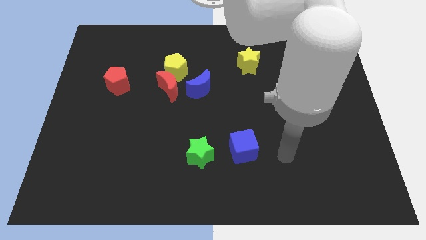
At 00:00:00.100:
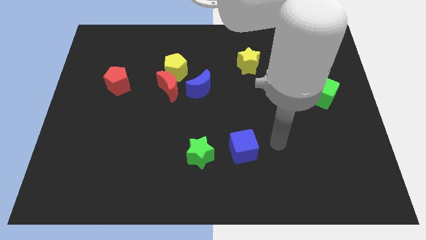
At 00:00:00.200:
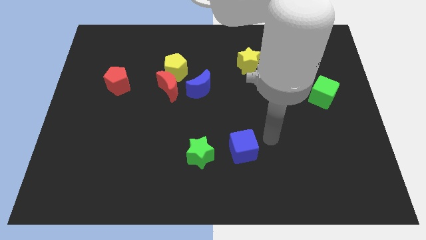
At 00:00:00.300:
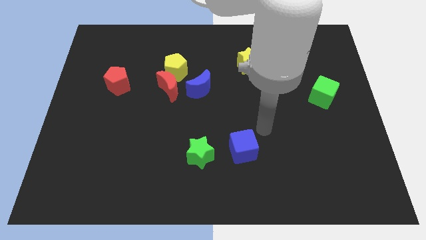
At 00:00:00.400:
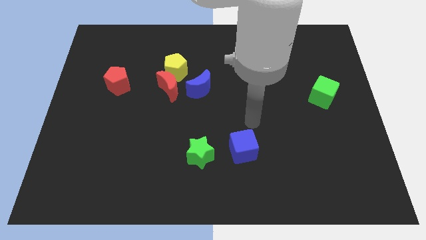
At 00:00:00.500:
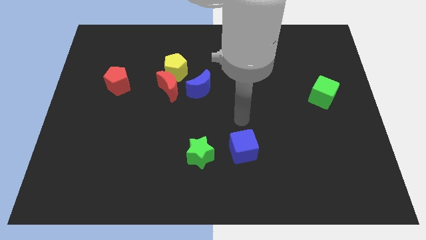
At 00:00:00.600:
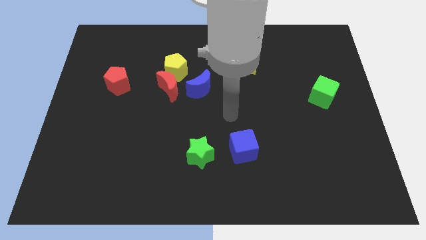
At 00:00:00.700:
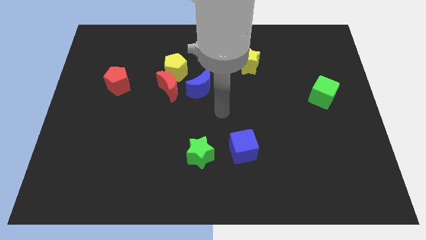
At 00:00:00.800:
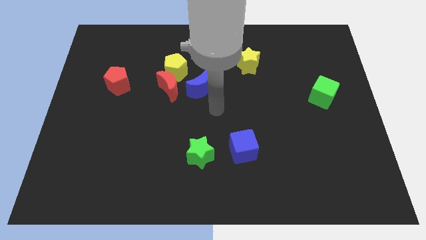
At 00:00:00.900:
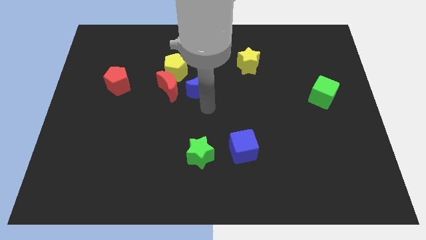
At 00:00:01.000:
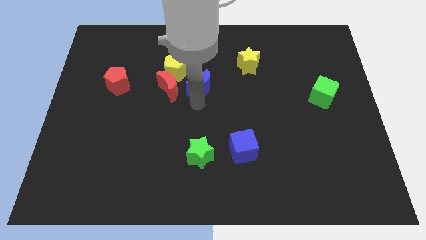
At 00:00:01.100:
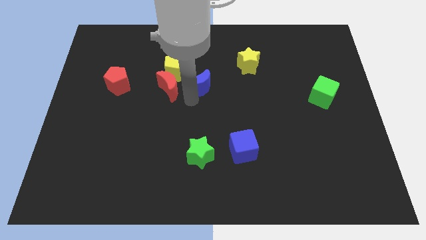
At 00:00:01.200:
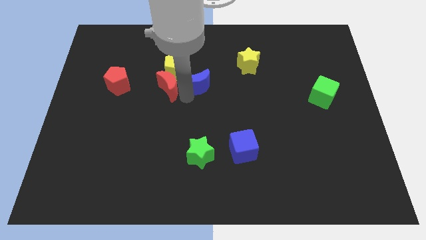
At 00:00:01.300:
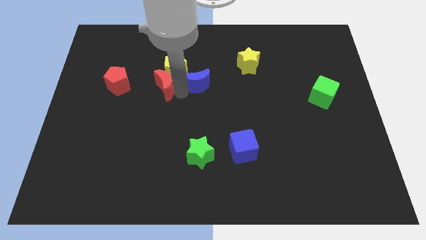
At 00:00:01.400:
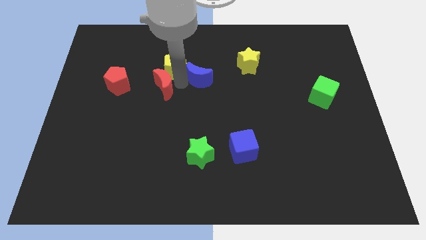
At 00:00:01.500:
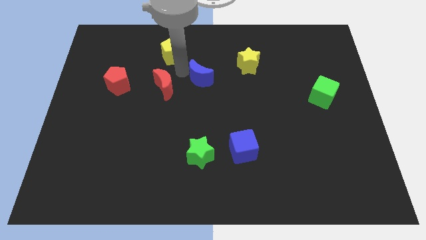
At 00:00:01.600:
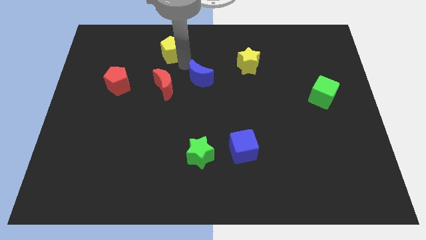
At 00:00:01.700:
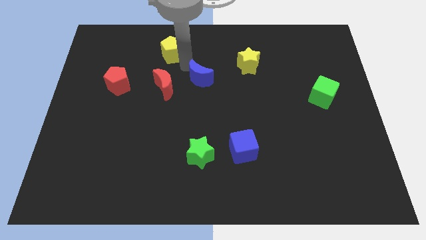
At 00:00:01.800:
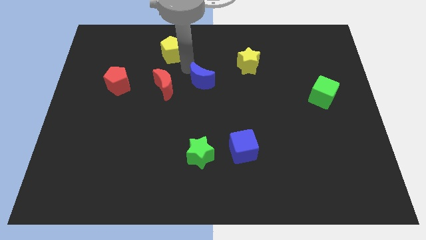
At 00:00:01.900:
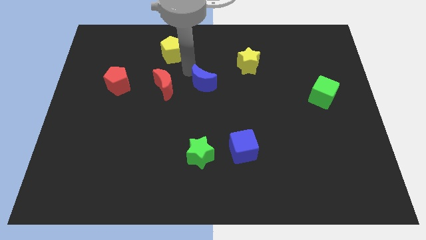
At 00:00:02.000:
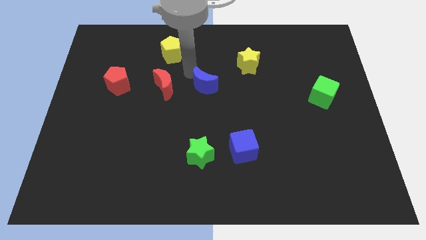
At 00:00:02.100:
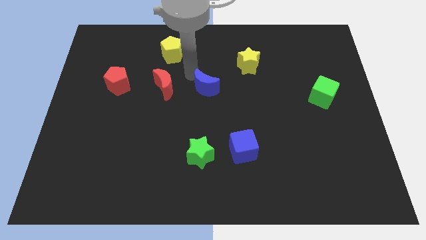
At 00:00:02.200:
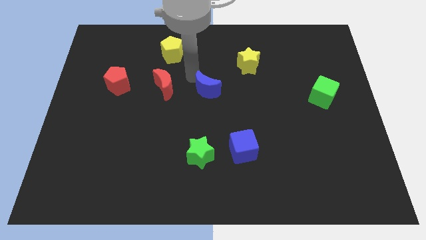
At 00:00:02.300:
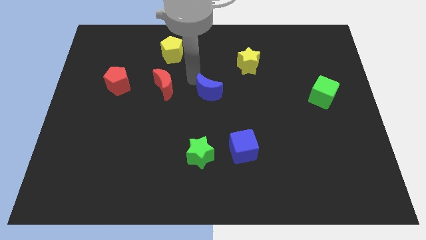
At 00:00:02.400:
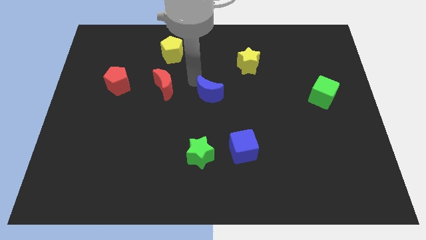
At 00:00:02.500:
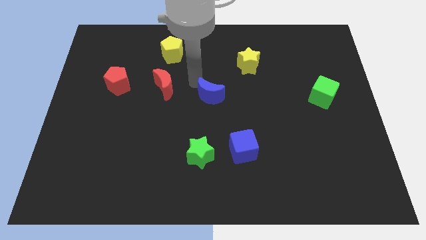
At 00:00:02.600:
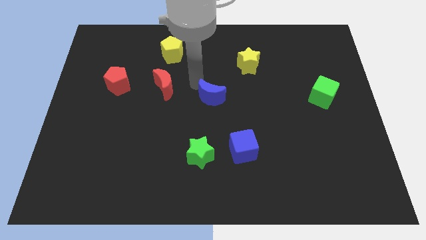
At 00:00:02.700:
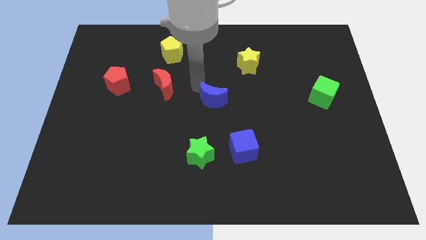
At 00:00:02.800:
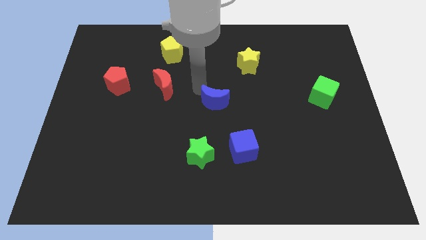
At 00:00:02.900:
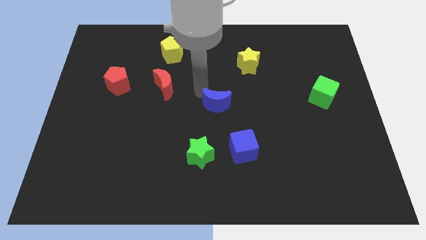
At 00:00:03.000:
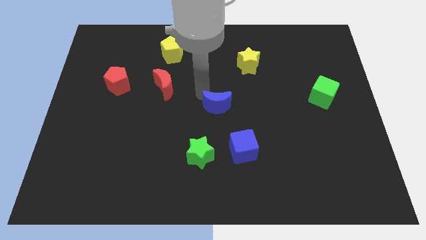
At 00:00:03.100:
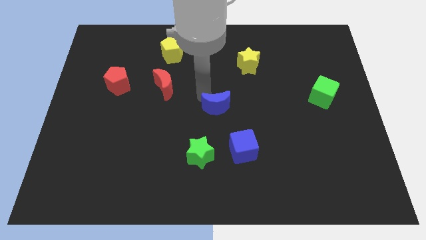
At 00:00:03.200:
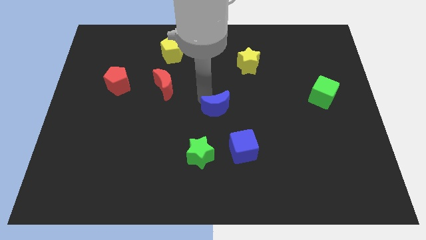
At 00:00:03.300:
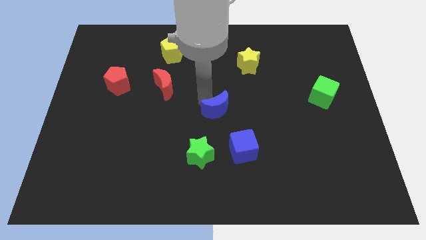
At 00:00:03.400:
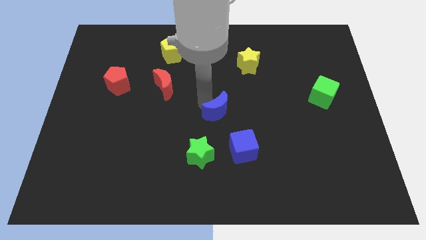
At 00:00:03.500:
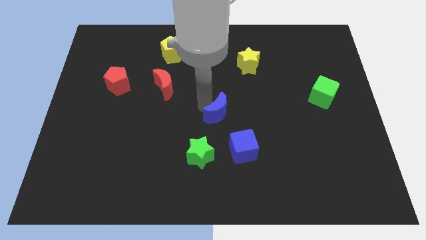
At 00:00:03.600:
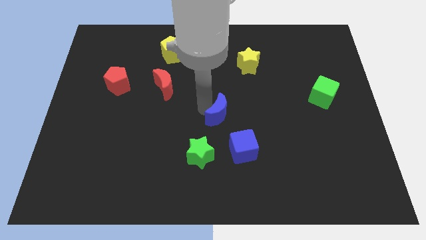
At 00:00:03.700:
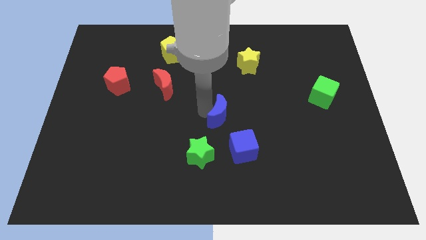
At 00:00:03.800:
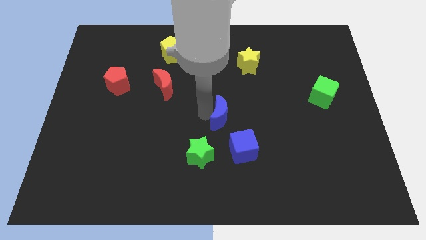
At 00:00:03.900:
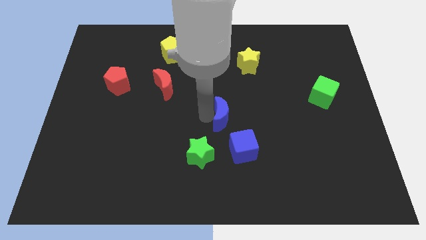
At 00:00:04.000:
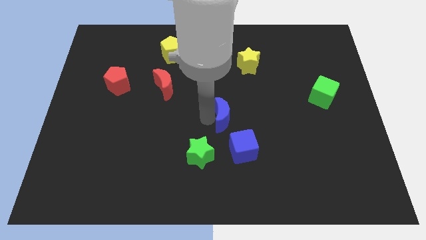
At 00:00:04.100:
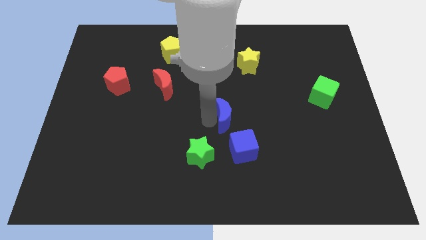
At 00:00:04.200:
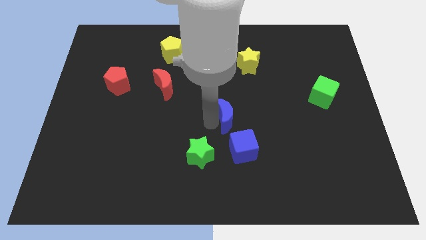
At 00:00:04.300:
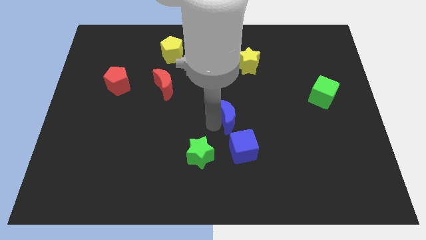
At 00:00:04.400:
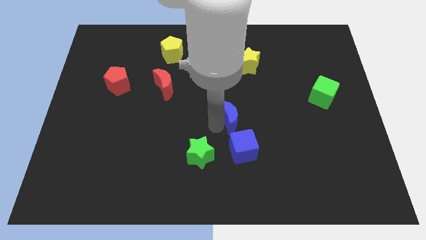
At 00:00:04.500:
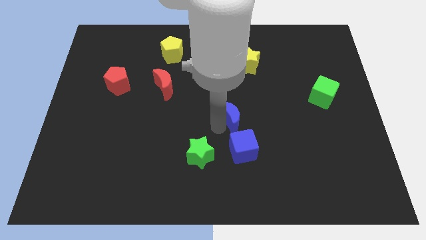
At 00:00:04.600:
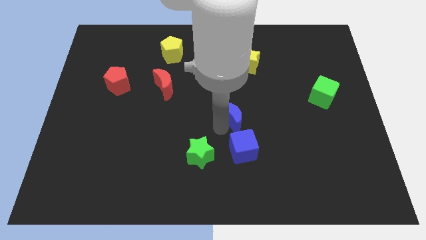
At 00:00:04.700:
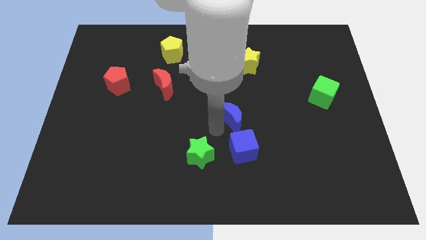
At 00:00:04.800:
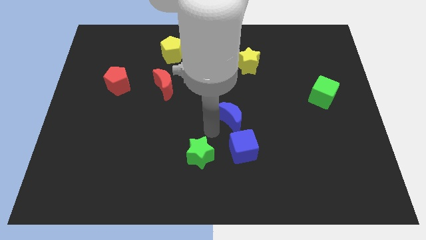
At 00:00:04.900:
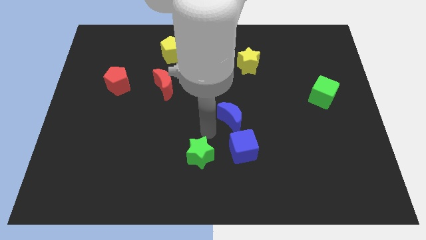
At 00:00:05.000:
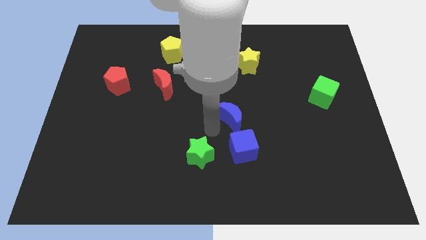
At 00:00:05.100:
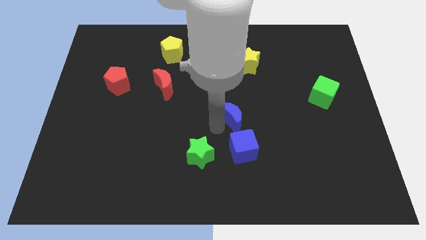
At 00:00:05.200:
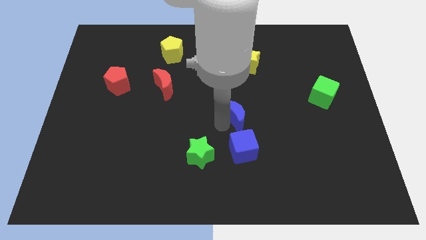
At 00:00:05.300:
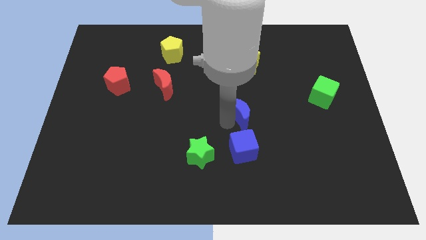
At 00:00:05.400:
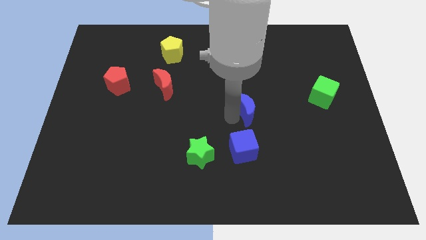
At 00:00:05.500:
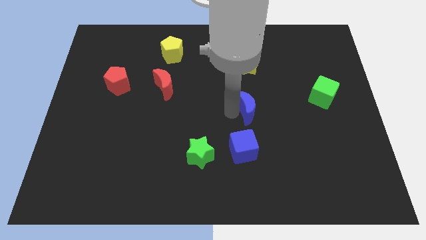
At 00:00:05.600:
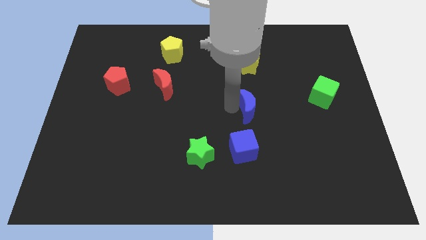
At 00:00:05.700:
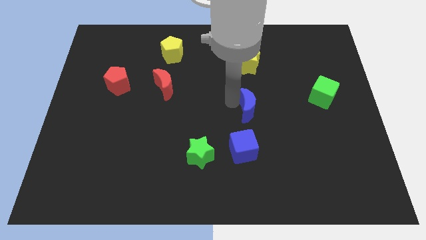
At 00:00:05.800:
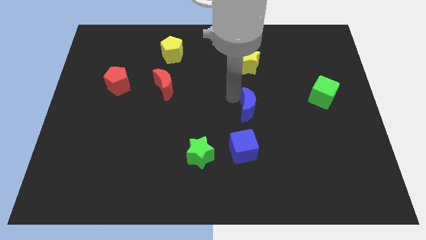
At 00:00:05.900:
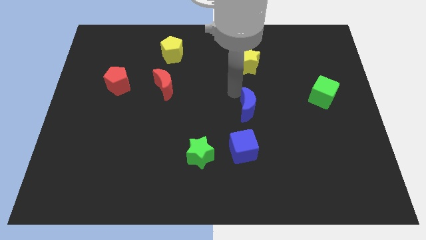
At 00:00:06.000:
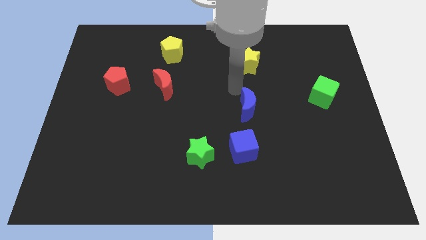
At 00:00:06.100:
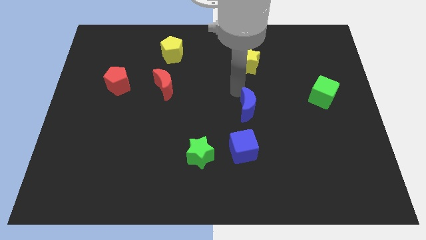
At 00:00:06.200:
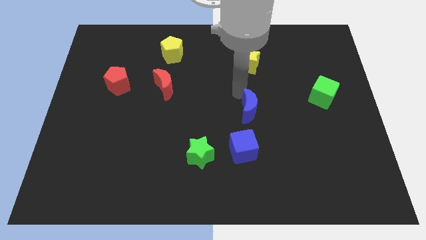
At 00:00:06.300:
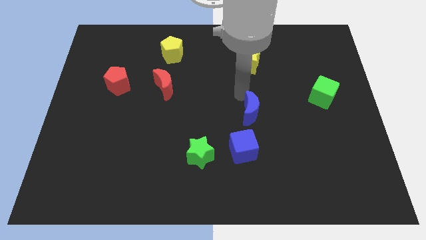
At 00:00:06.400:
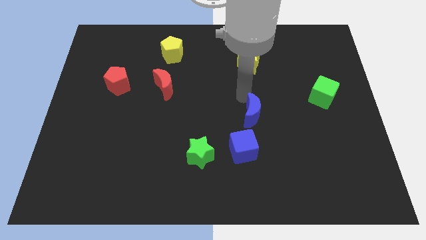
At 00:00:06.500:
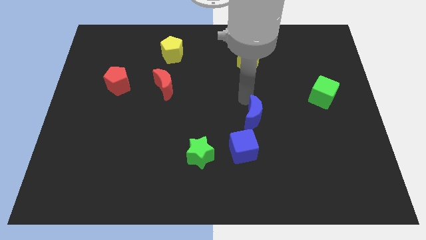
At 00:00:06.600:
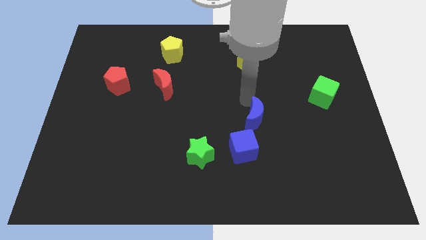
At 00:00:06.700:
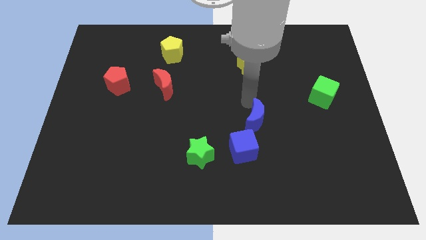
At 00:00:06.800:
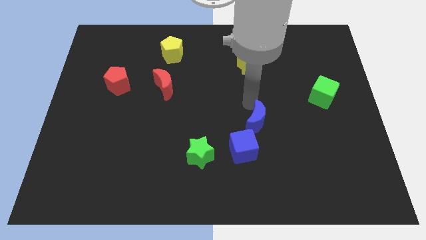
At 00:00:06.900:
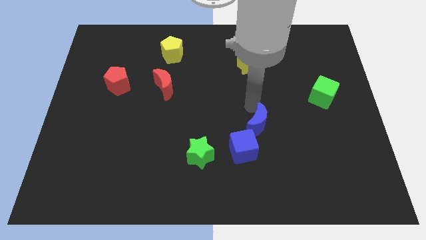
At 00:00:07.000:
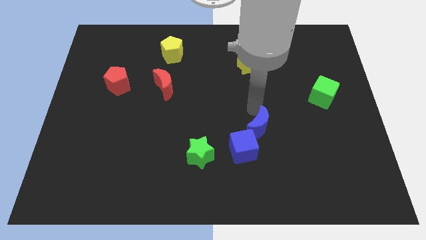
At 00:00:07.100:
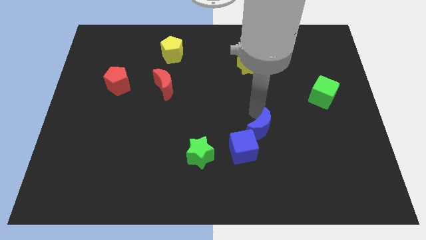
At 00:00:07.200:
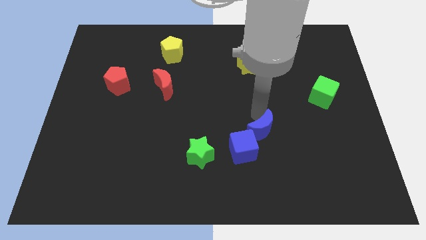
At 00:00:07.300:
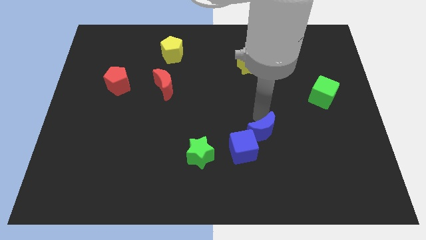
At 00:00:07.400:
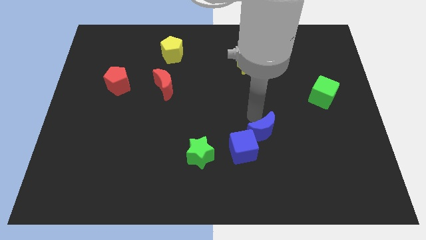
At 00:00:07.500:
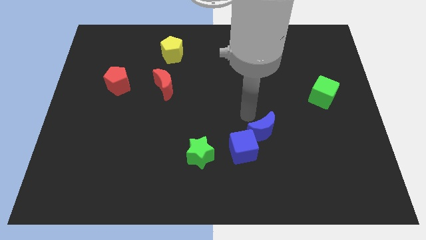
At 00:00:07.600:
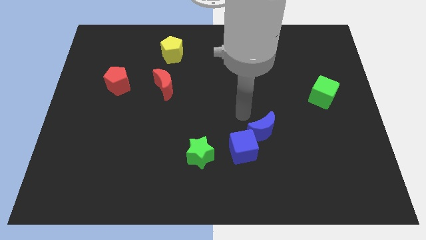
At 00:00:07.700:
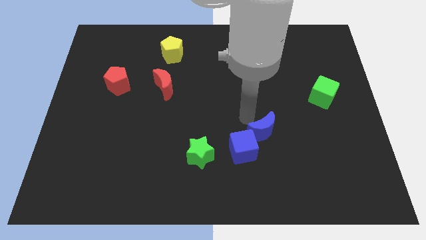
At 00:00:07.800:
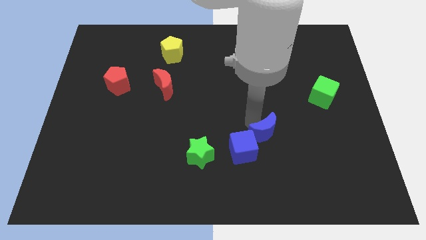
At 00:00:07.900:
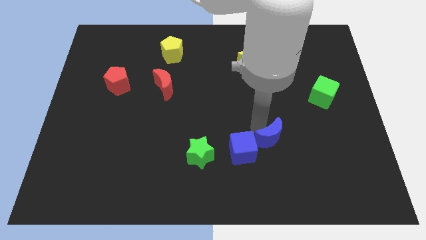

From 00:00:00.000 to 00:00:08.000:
push the blue moon down and then to the right

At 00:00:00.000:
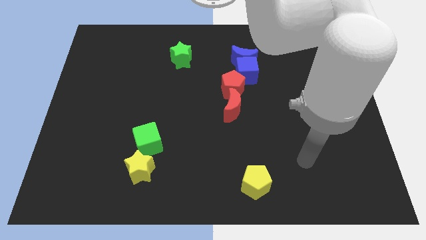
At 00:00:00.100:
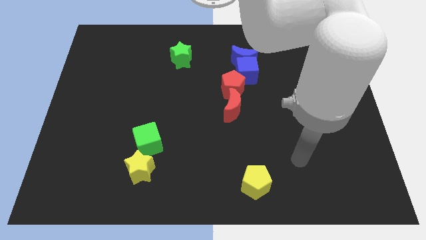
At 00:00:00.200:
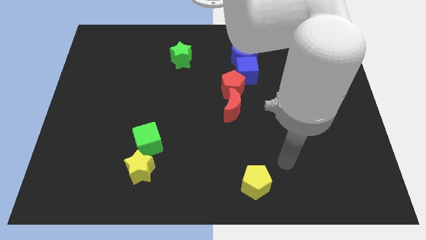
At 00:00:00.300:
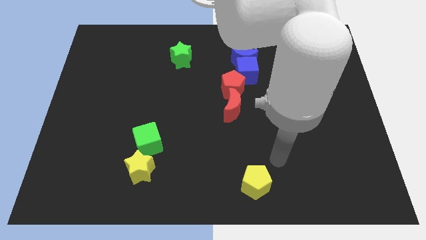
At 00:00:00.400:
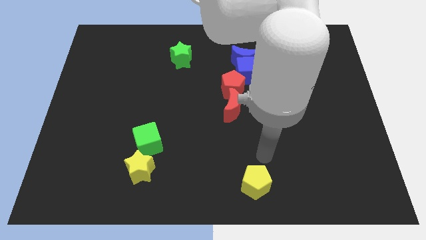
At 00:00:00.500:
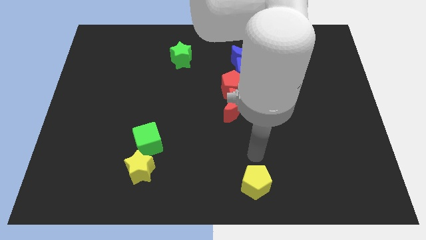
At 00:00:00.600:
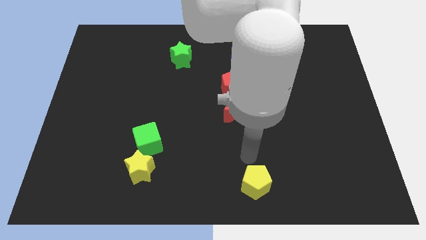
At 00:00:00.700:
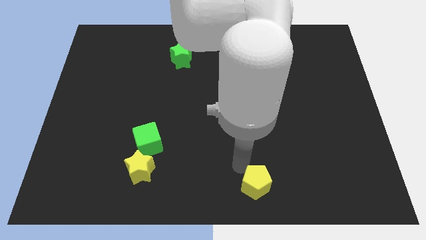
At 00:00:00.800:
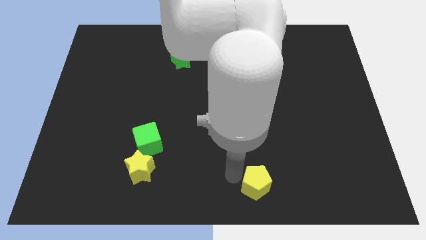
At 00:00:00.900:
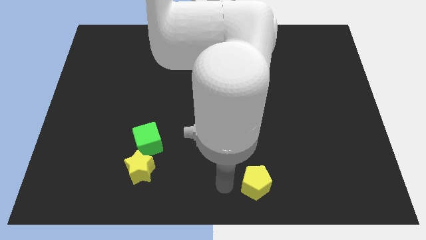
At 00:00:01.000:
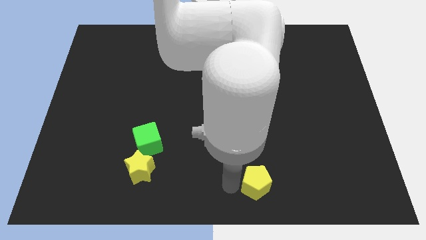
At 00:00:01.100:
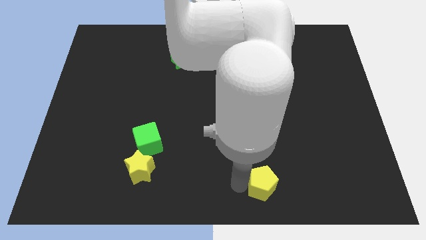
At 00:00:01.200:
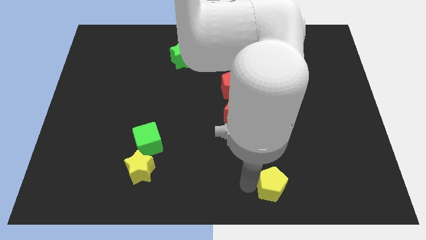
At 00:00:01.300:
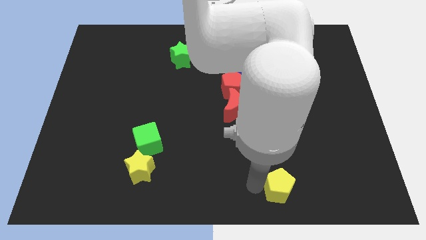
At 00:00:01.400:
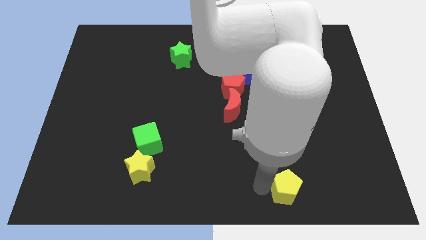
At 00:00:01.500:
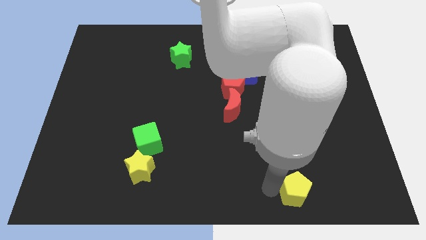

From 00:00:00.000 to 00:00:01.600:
slide the yellow pentagon a bit to the right
